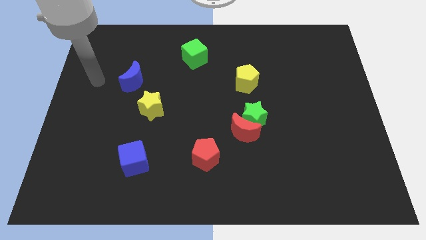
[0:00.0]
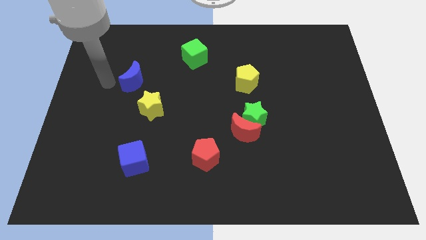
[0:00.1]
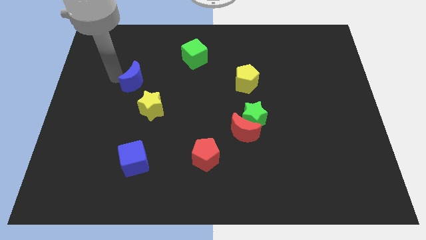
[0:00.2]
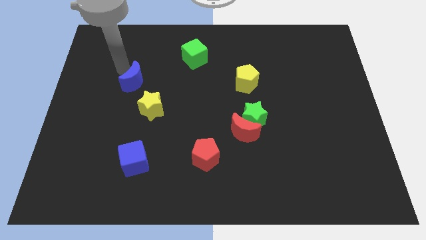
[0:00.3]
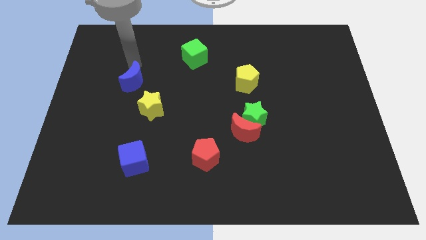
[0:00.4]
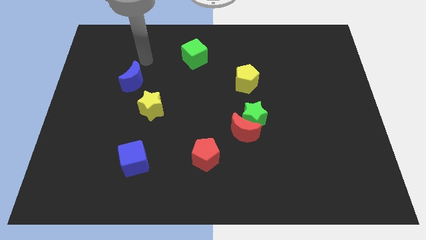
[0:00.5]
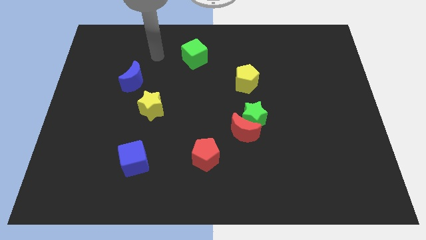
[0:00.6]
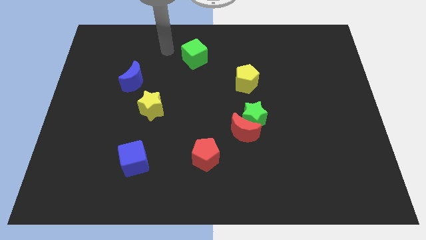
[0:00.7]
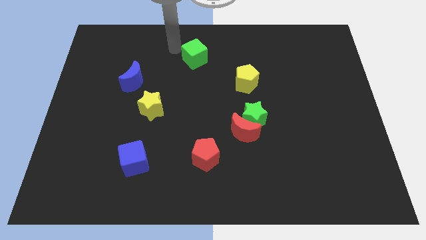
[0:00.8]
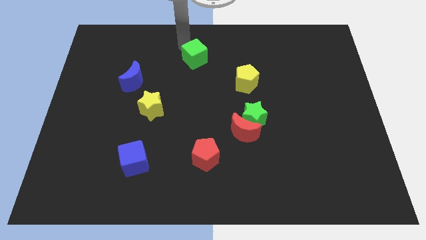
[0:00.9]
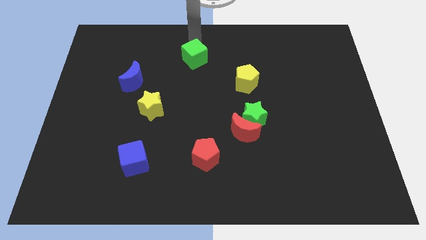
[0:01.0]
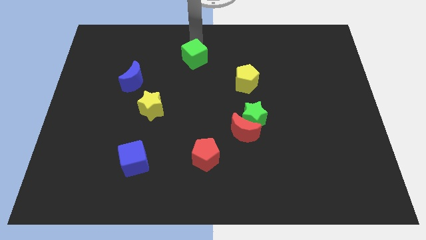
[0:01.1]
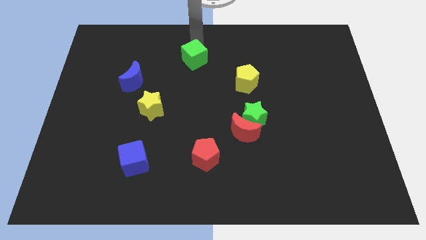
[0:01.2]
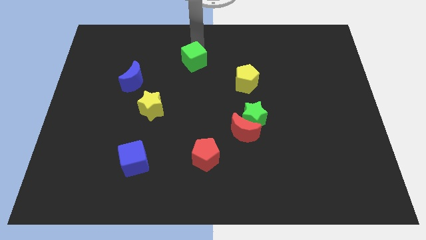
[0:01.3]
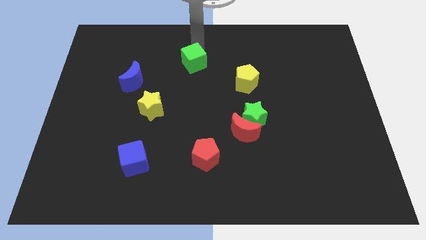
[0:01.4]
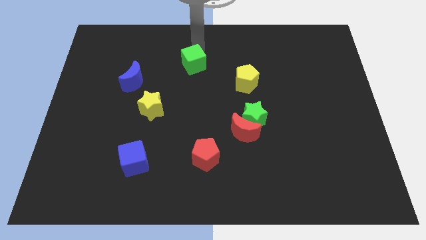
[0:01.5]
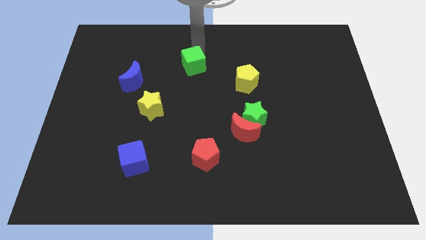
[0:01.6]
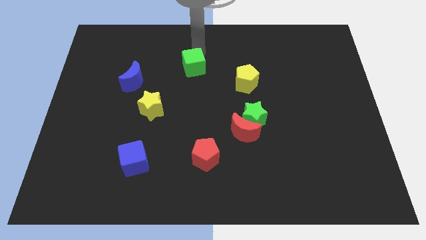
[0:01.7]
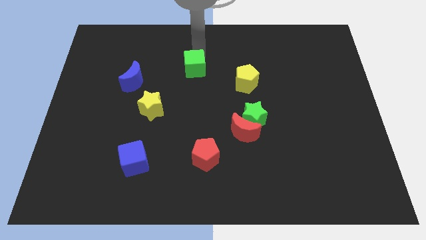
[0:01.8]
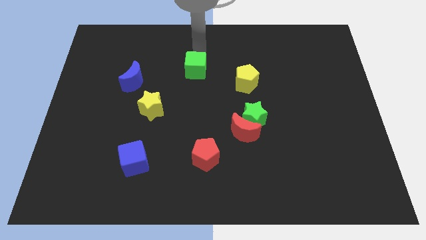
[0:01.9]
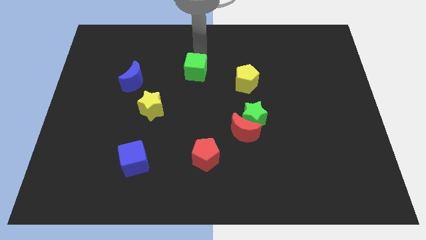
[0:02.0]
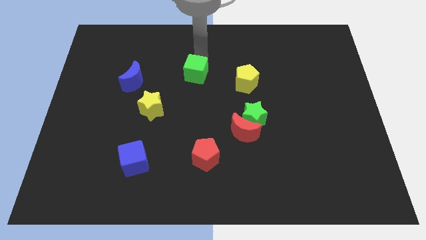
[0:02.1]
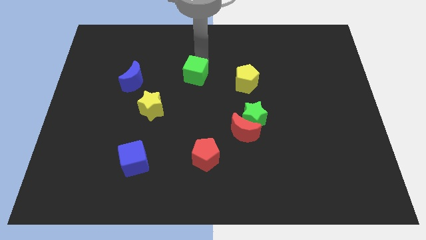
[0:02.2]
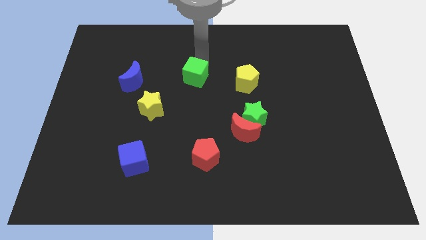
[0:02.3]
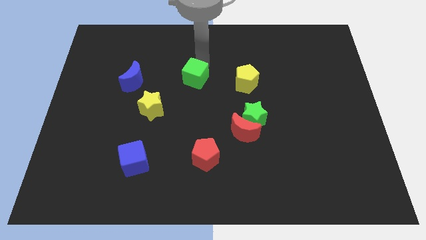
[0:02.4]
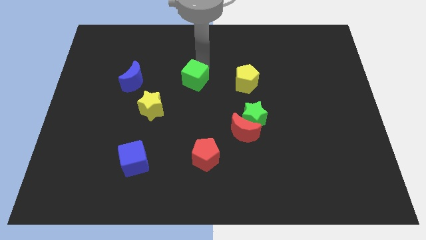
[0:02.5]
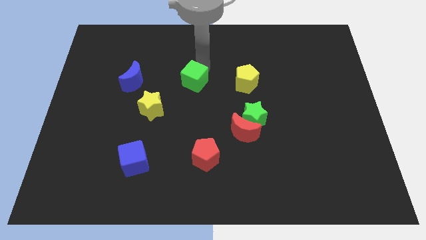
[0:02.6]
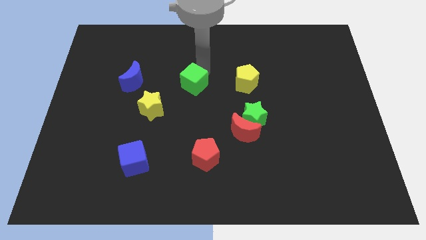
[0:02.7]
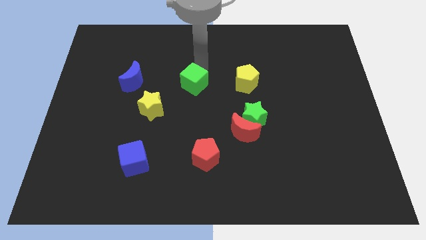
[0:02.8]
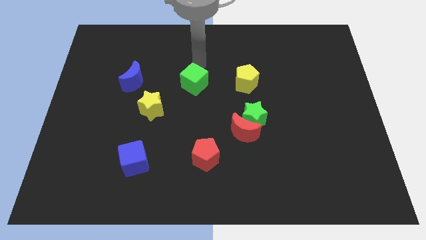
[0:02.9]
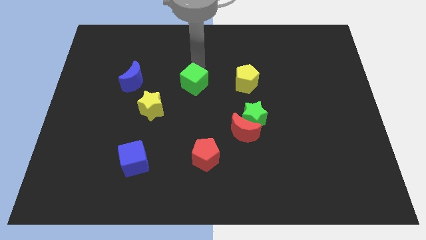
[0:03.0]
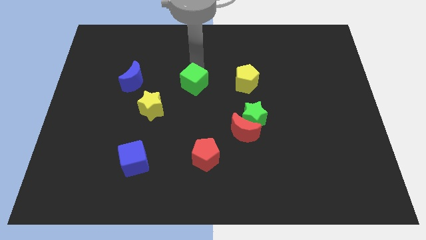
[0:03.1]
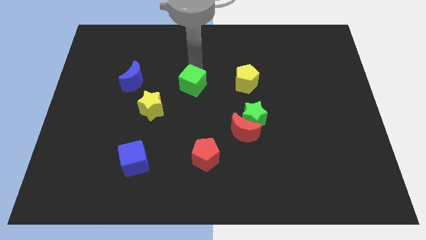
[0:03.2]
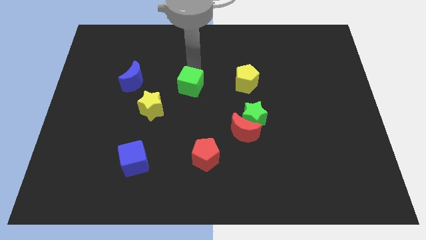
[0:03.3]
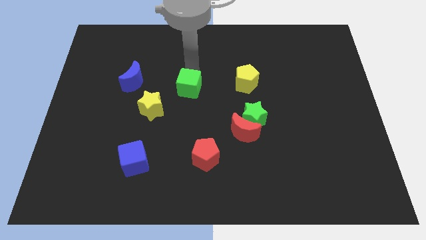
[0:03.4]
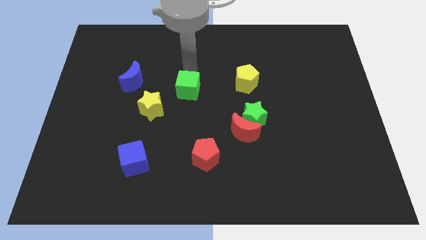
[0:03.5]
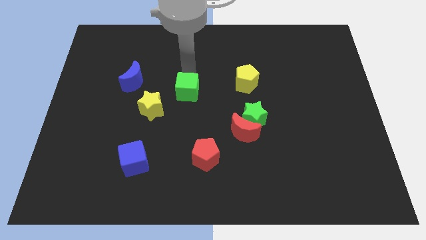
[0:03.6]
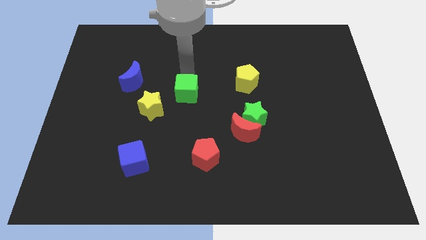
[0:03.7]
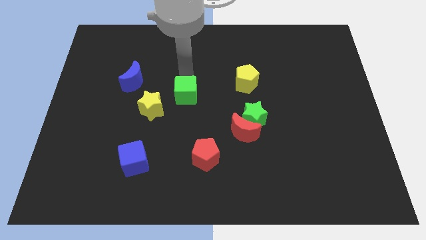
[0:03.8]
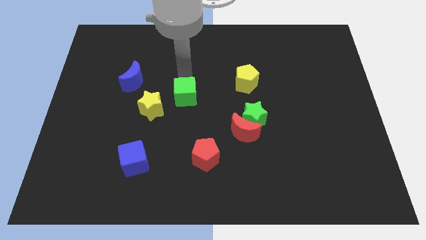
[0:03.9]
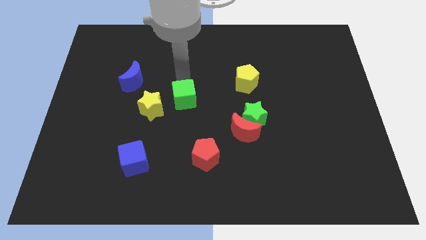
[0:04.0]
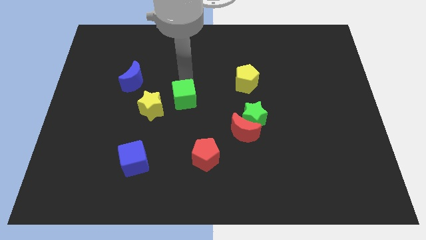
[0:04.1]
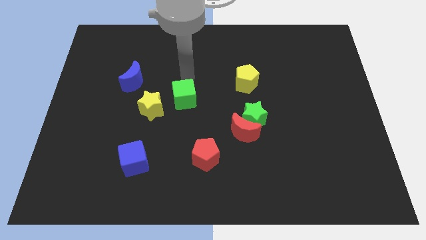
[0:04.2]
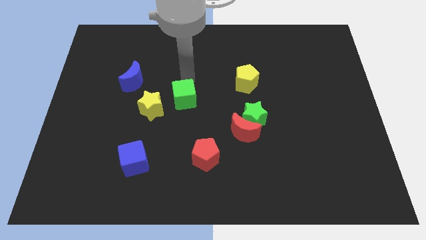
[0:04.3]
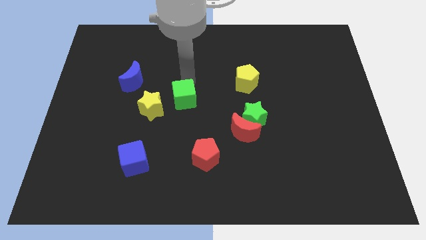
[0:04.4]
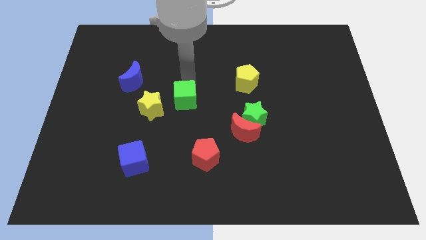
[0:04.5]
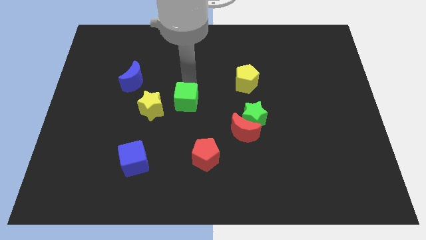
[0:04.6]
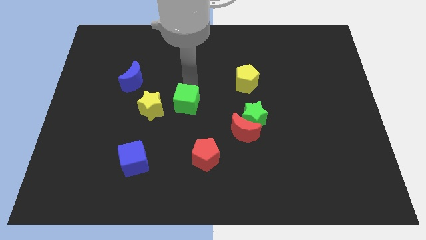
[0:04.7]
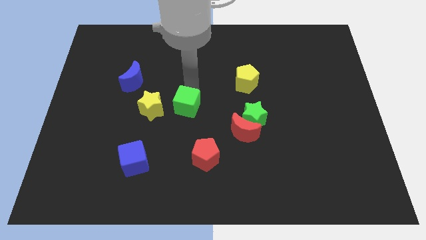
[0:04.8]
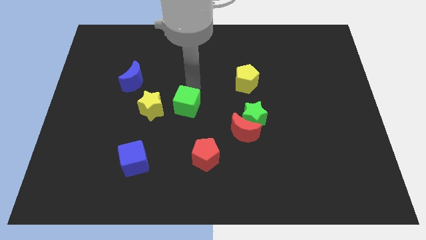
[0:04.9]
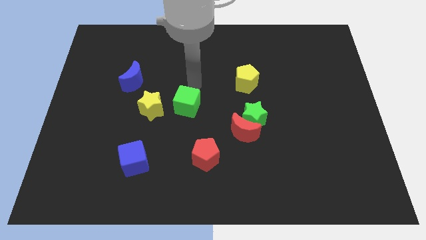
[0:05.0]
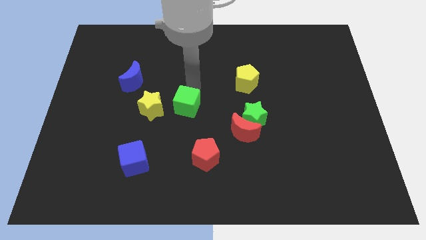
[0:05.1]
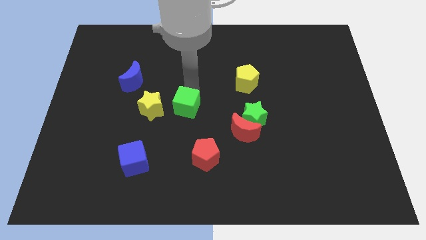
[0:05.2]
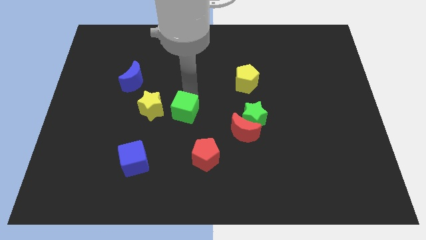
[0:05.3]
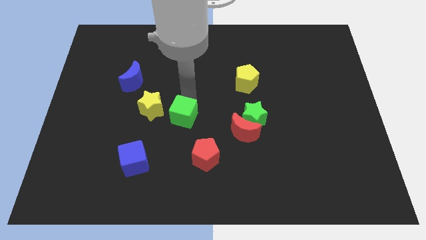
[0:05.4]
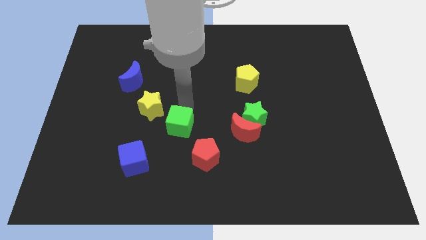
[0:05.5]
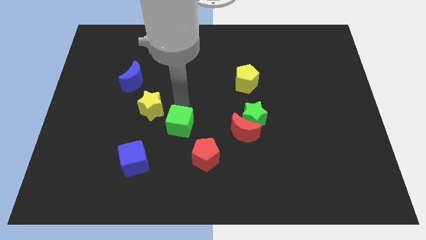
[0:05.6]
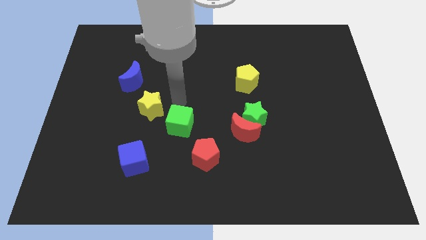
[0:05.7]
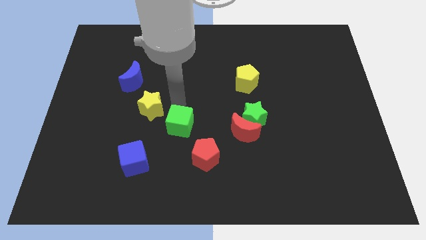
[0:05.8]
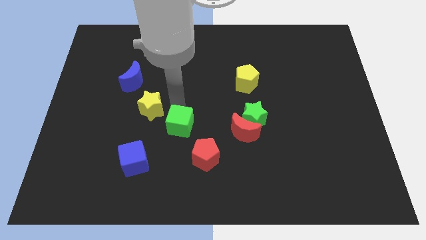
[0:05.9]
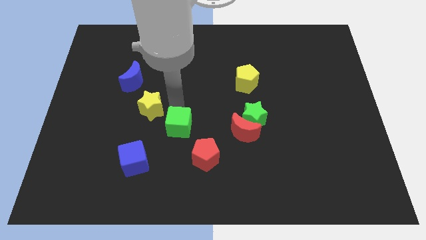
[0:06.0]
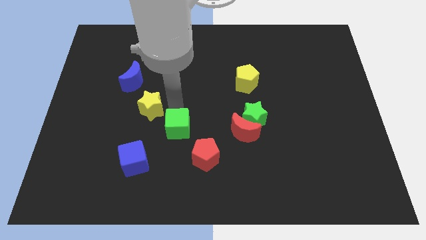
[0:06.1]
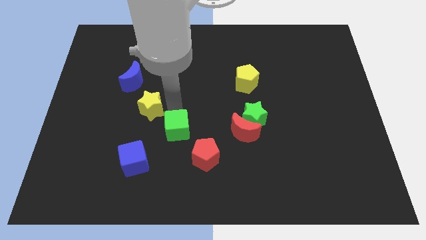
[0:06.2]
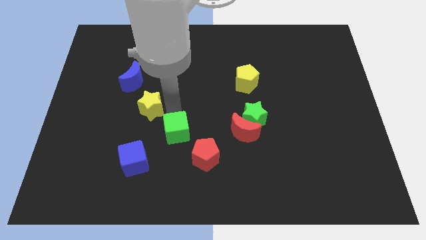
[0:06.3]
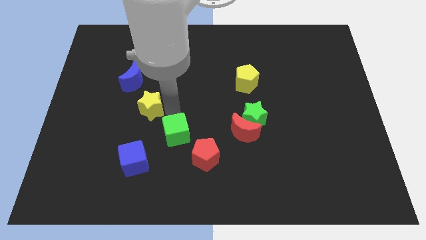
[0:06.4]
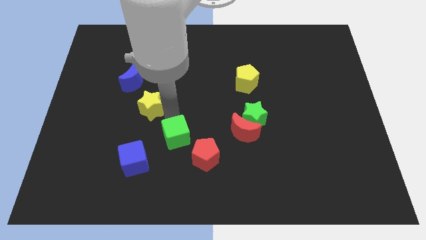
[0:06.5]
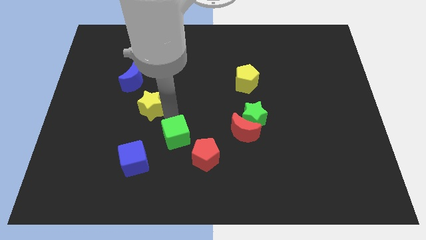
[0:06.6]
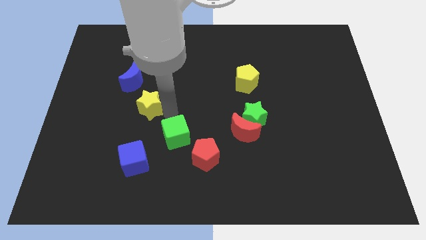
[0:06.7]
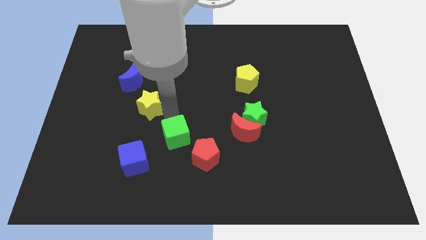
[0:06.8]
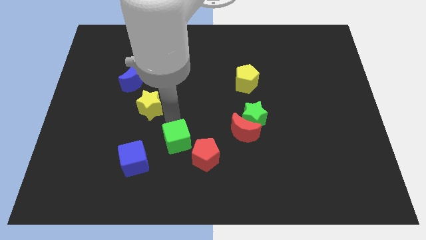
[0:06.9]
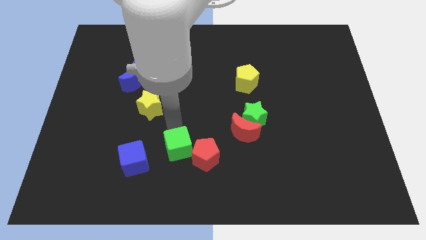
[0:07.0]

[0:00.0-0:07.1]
move the green cube right of the blue cube
